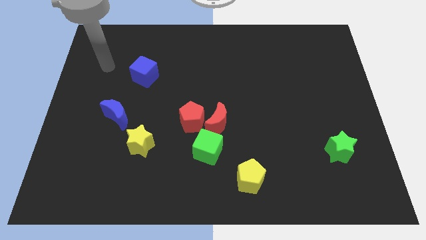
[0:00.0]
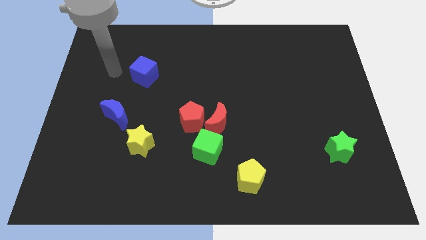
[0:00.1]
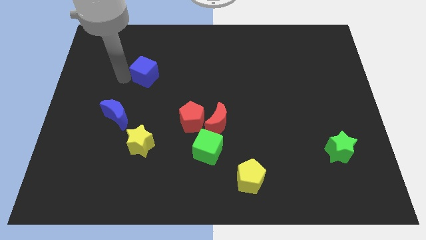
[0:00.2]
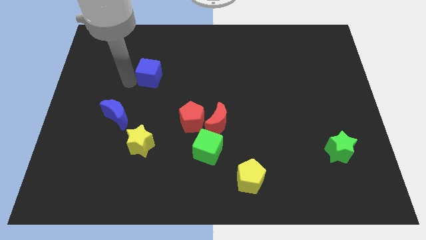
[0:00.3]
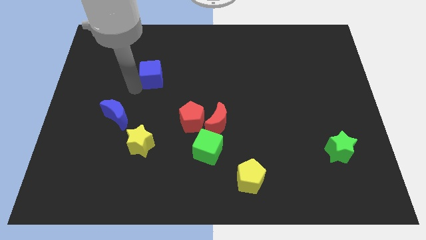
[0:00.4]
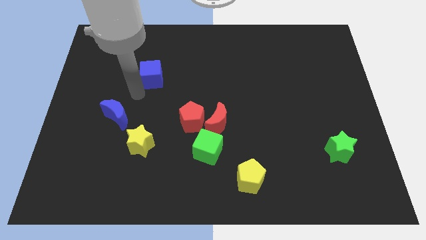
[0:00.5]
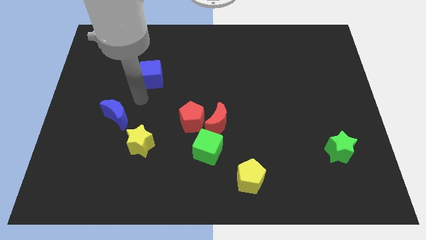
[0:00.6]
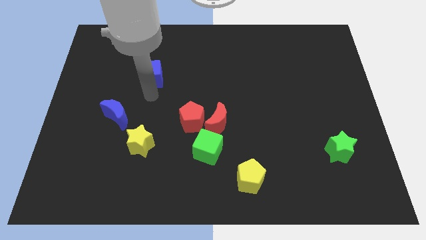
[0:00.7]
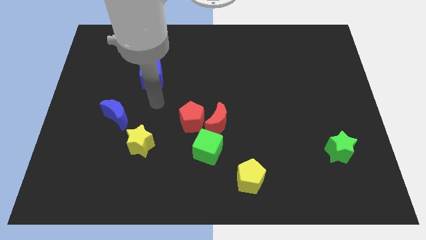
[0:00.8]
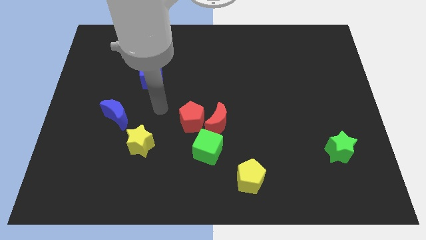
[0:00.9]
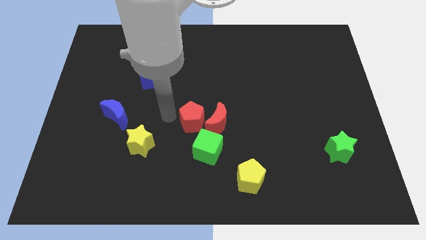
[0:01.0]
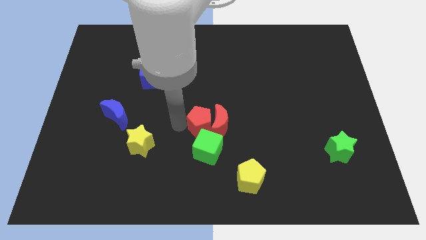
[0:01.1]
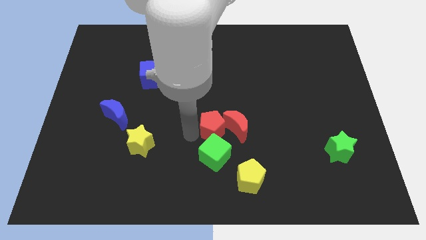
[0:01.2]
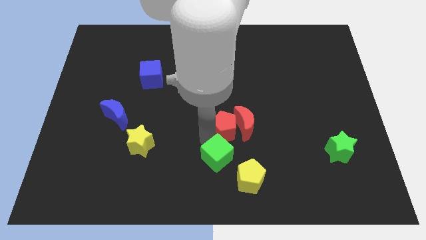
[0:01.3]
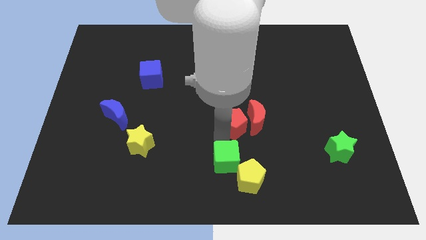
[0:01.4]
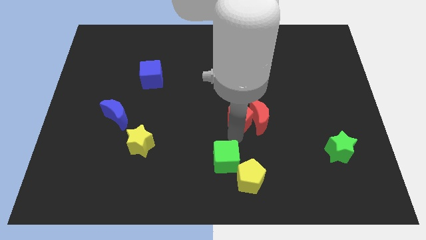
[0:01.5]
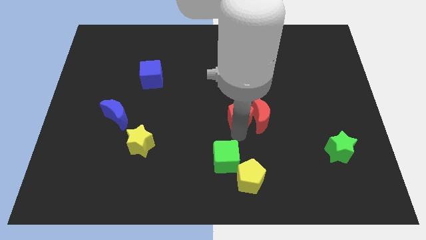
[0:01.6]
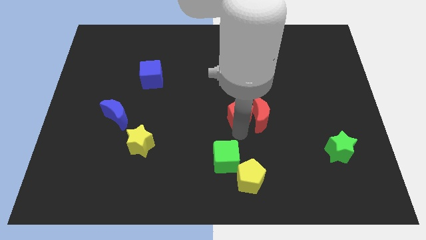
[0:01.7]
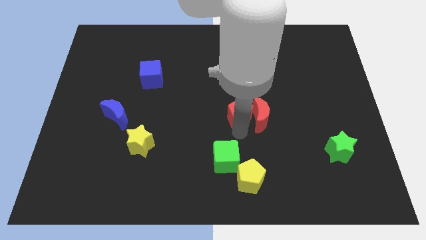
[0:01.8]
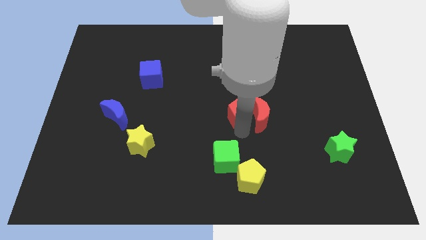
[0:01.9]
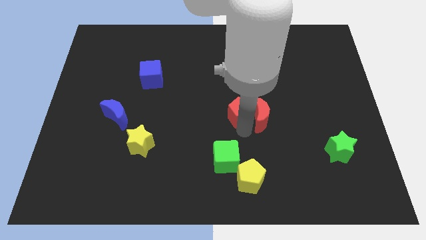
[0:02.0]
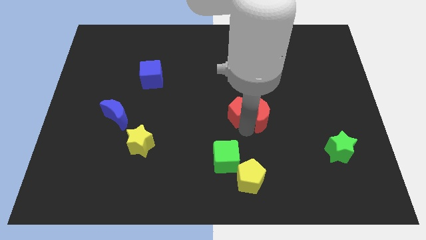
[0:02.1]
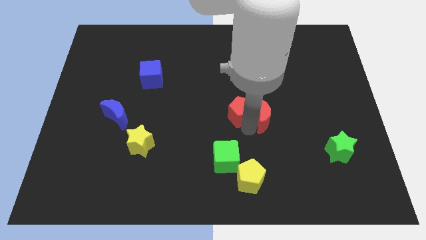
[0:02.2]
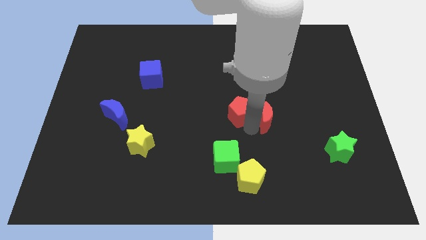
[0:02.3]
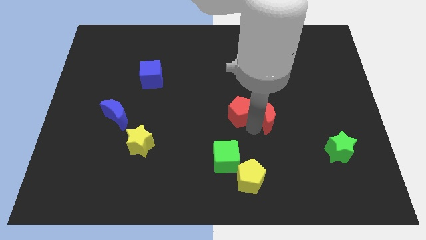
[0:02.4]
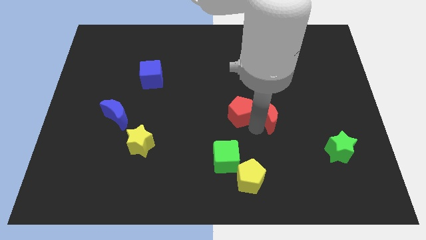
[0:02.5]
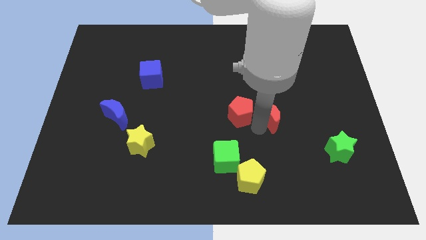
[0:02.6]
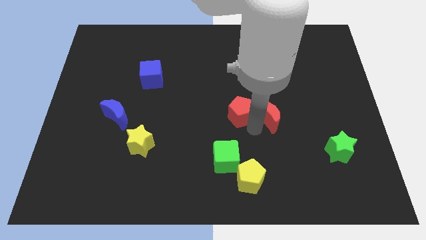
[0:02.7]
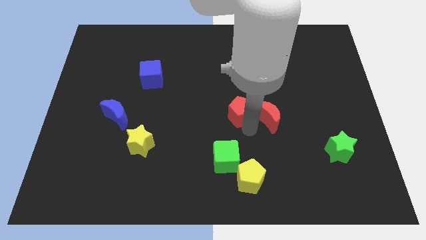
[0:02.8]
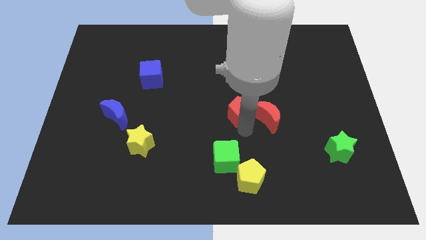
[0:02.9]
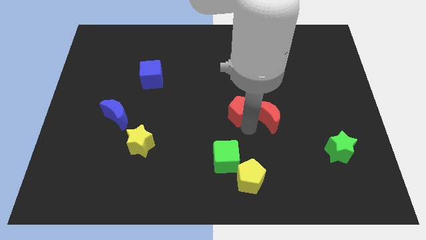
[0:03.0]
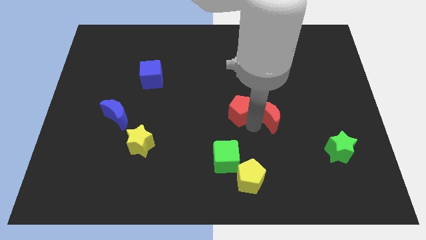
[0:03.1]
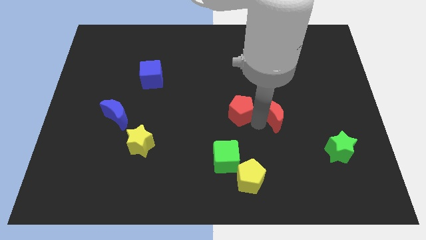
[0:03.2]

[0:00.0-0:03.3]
separate the red moon from the red pentagon and green cube

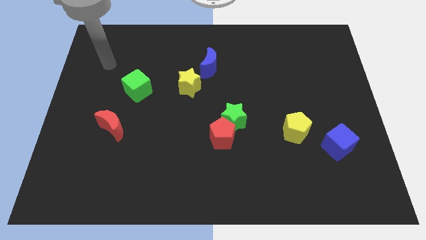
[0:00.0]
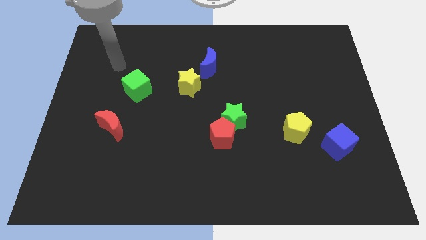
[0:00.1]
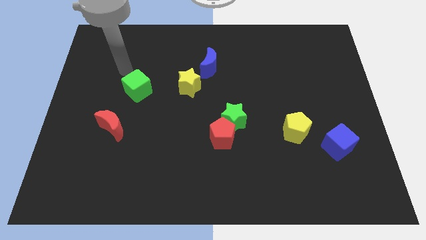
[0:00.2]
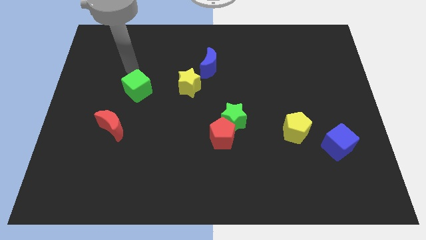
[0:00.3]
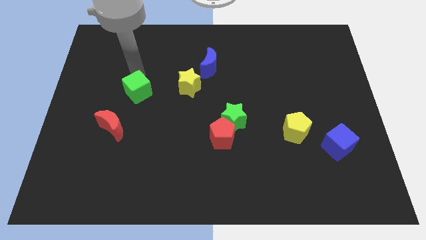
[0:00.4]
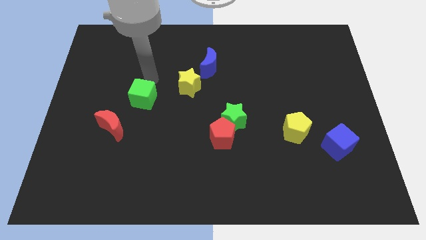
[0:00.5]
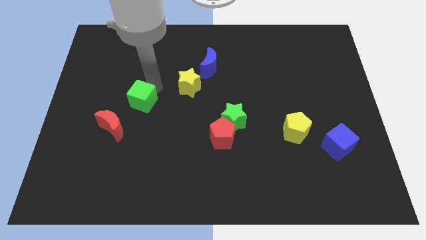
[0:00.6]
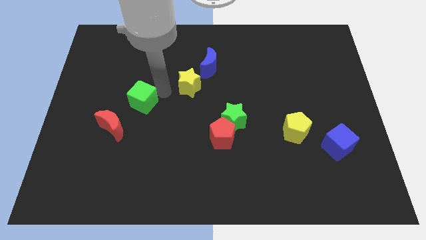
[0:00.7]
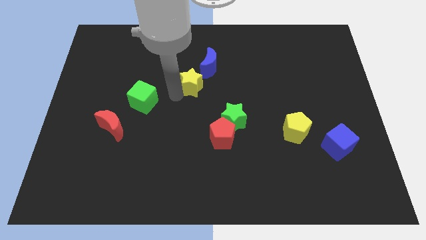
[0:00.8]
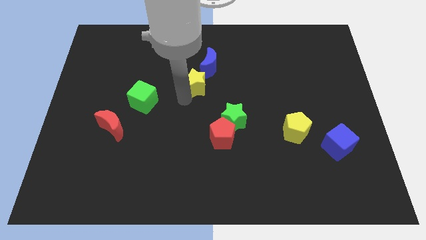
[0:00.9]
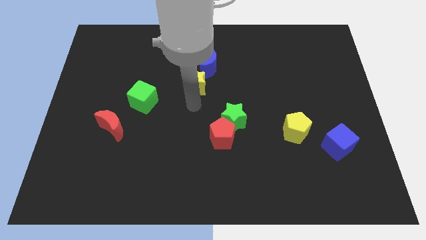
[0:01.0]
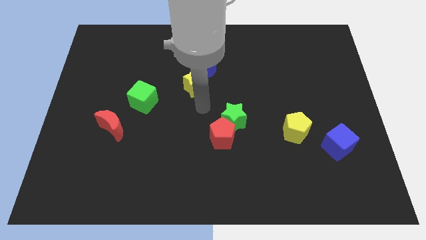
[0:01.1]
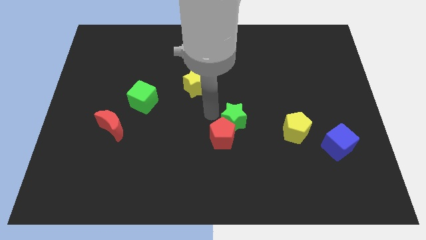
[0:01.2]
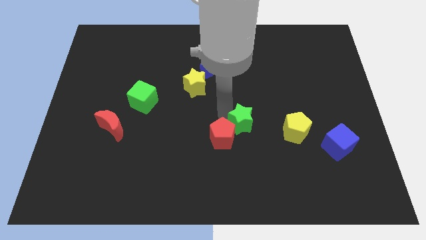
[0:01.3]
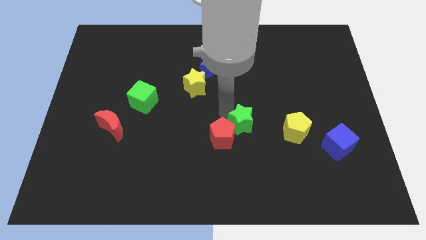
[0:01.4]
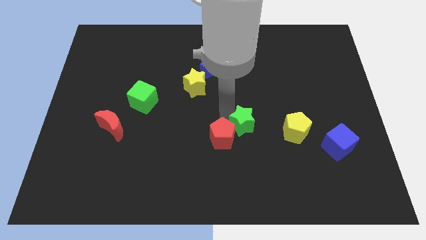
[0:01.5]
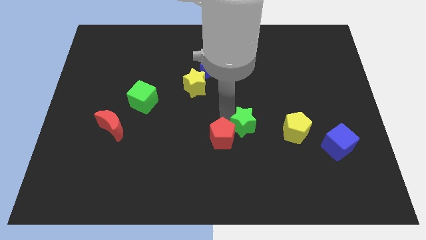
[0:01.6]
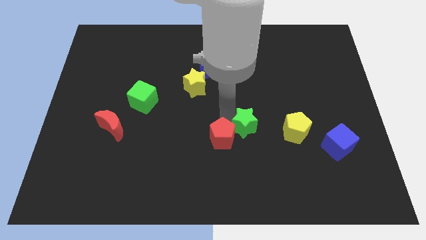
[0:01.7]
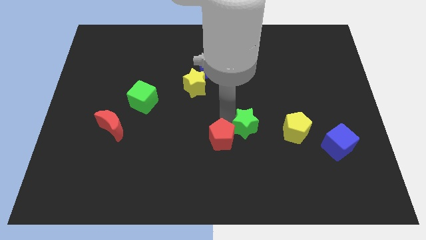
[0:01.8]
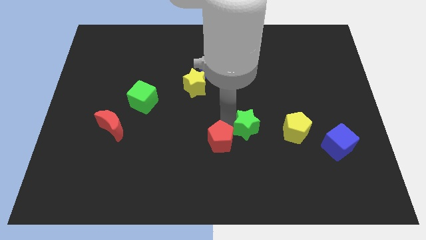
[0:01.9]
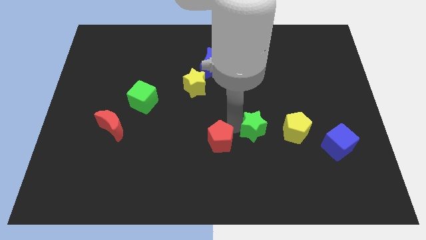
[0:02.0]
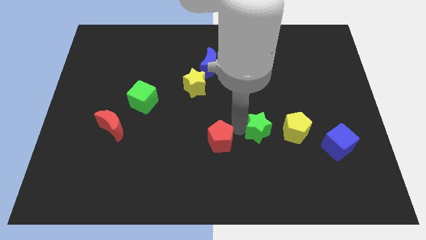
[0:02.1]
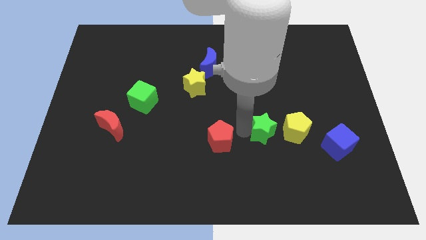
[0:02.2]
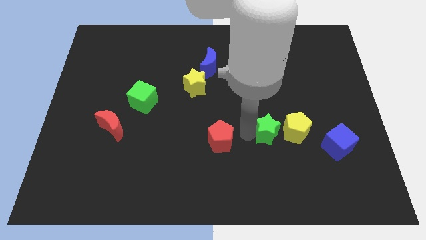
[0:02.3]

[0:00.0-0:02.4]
separate the red pentagon from the green star

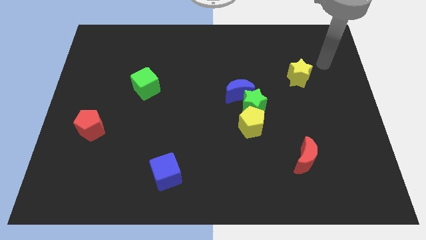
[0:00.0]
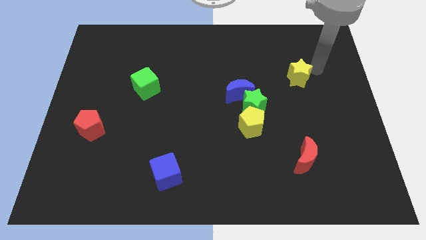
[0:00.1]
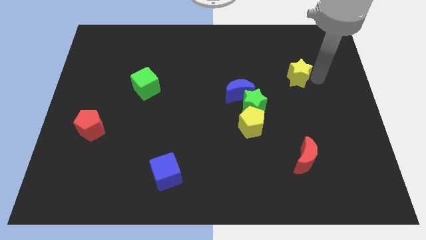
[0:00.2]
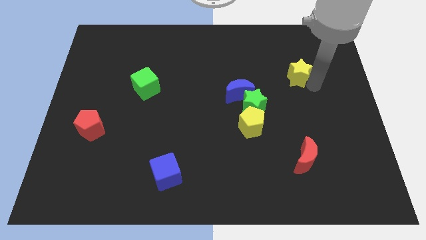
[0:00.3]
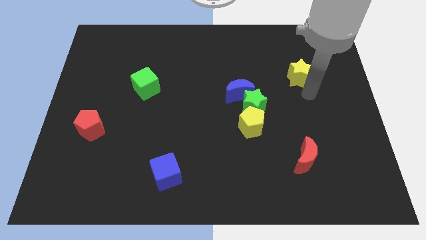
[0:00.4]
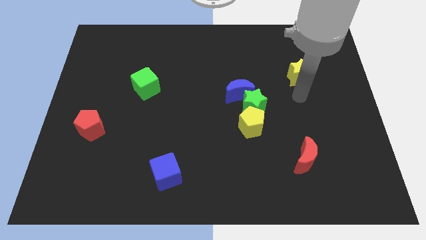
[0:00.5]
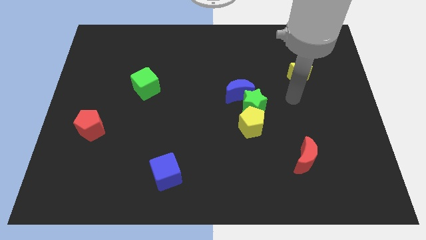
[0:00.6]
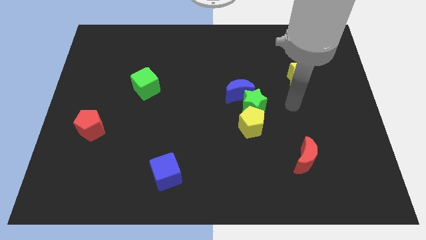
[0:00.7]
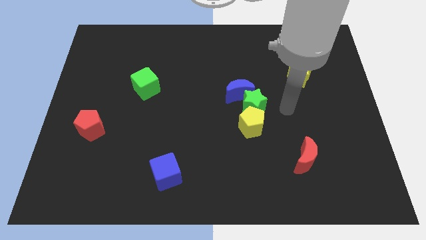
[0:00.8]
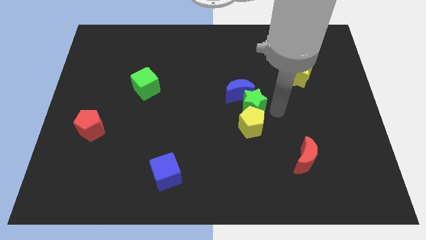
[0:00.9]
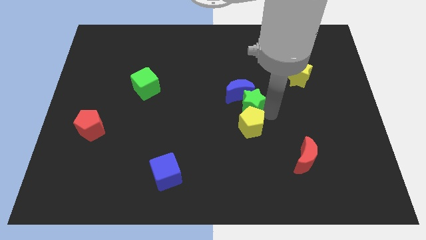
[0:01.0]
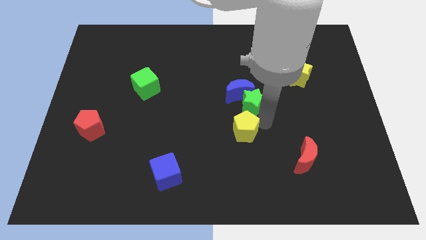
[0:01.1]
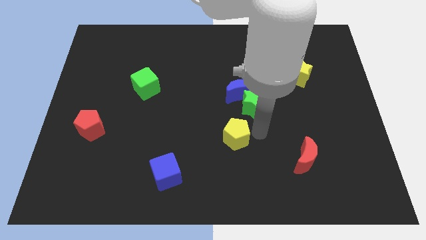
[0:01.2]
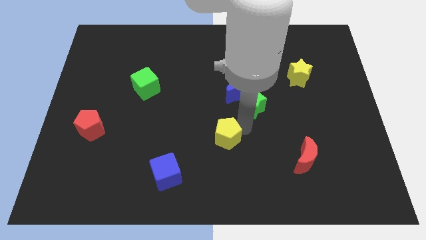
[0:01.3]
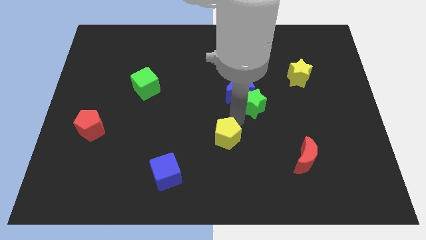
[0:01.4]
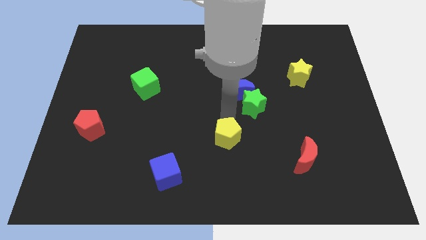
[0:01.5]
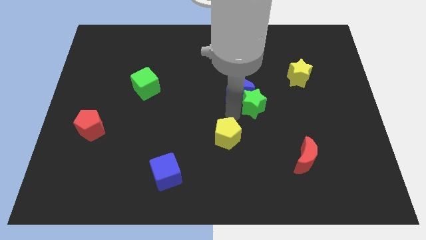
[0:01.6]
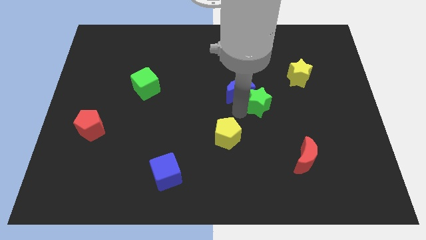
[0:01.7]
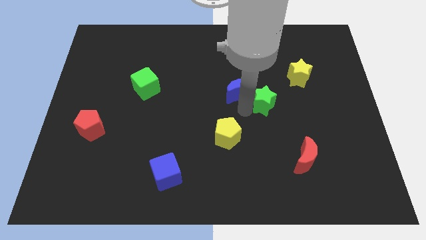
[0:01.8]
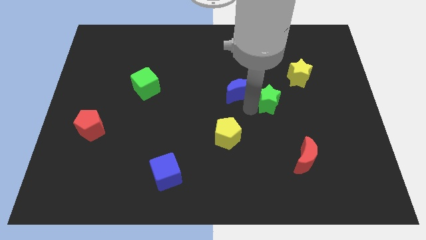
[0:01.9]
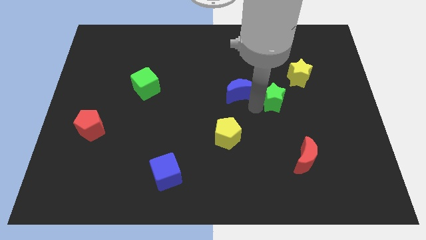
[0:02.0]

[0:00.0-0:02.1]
pull the green star apart from the blue moon and yellow pentagon

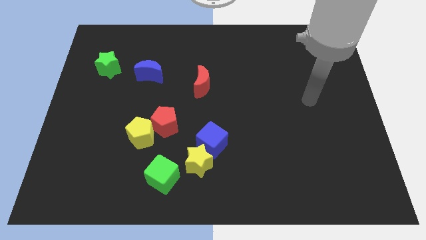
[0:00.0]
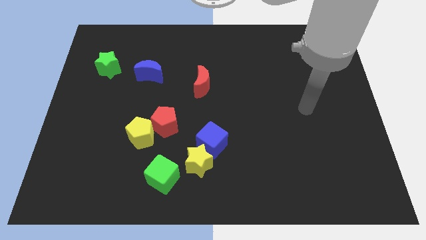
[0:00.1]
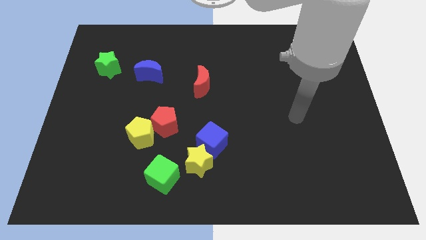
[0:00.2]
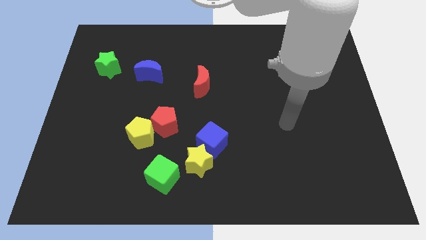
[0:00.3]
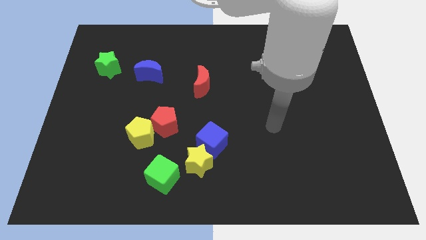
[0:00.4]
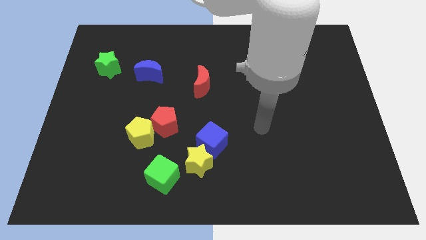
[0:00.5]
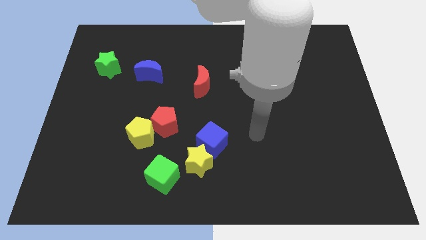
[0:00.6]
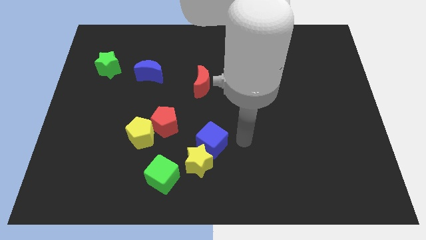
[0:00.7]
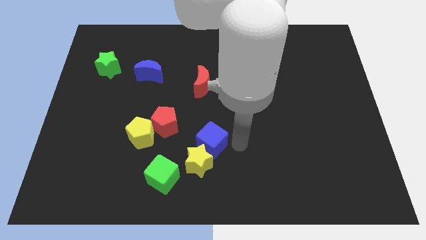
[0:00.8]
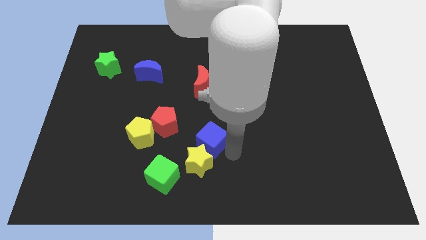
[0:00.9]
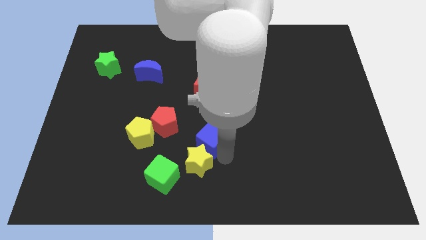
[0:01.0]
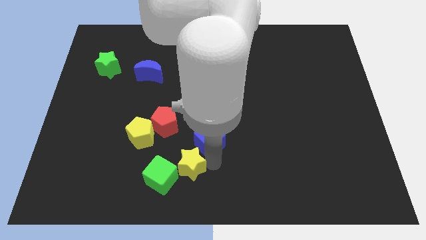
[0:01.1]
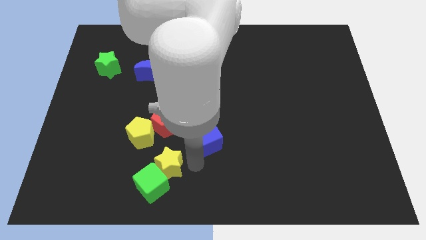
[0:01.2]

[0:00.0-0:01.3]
separate the blue cube from the yellow star

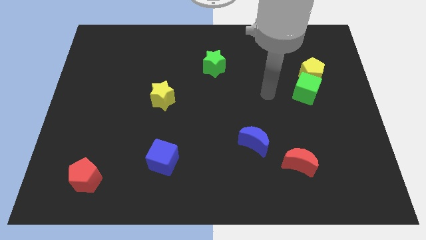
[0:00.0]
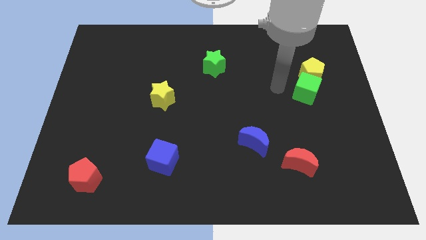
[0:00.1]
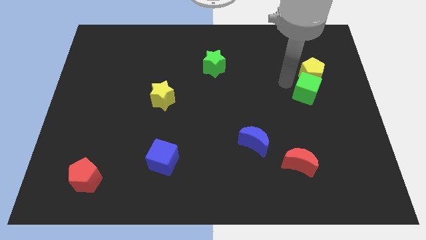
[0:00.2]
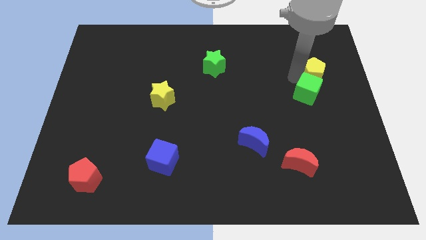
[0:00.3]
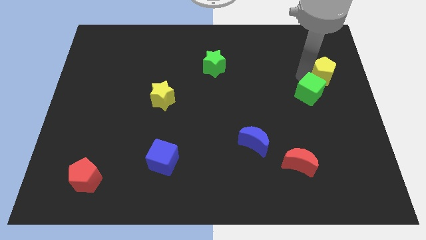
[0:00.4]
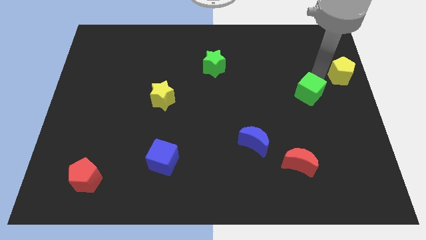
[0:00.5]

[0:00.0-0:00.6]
move the green cube away from the yellow pentagon
